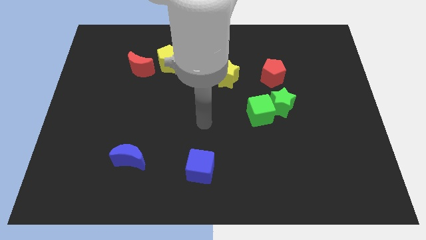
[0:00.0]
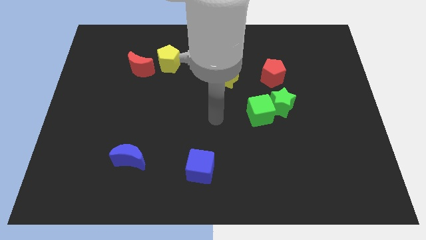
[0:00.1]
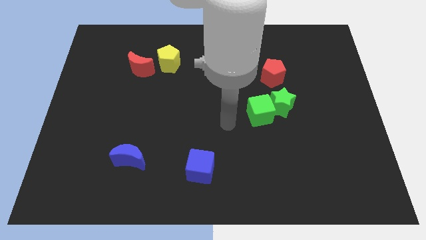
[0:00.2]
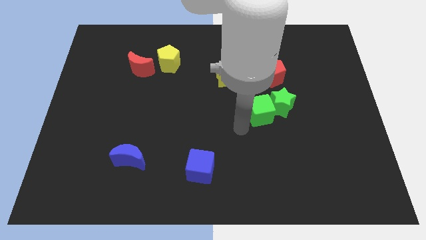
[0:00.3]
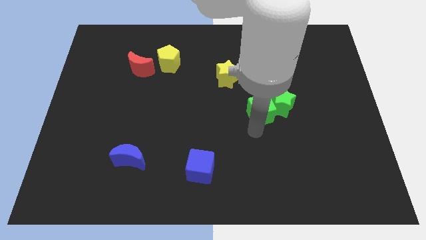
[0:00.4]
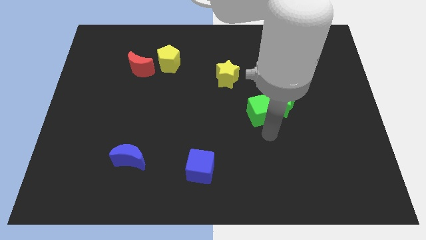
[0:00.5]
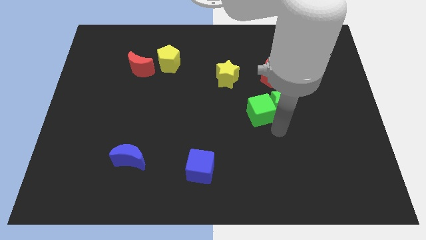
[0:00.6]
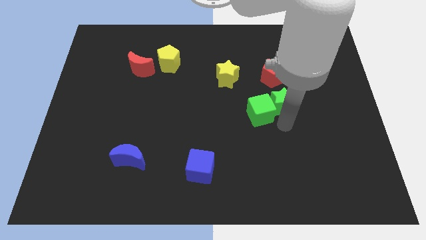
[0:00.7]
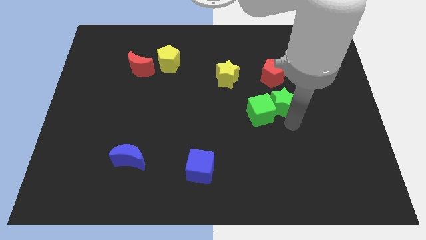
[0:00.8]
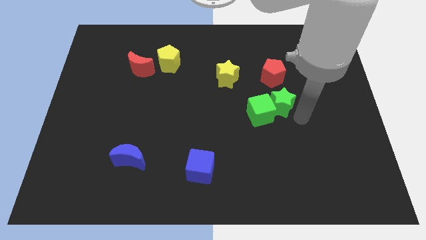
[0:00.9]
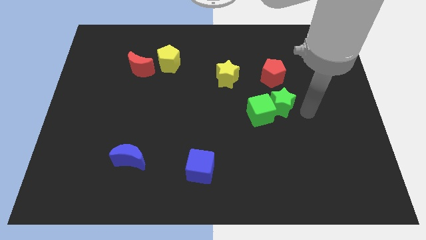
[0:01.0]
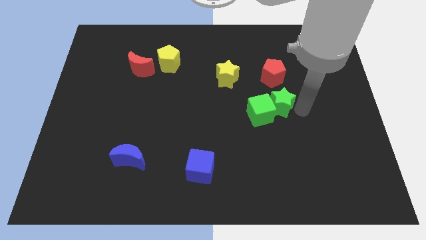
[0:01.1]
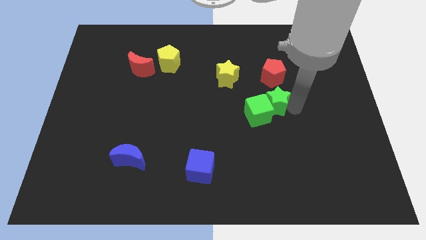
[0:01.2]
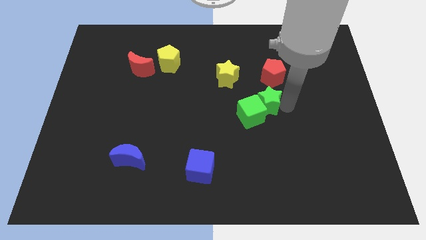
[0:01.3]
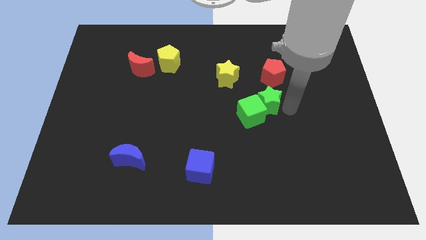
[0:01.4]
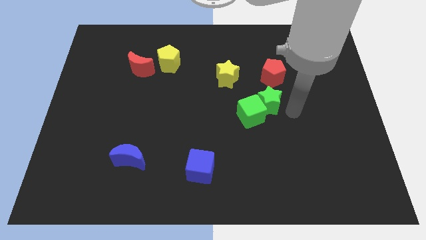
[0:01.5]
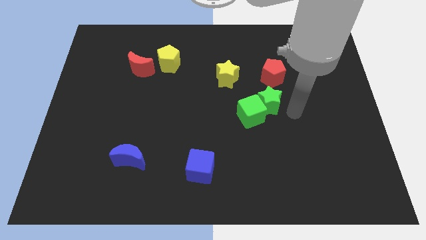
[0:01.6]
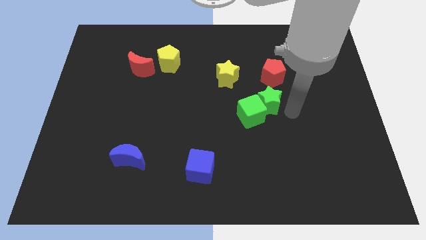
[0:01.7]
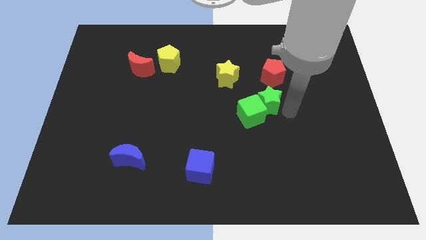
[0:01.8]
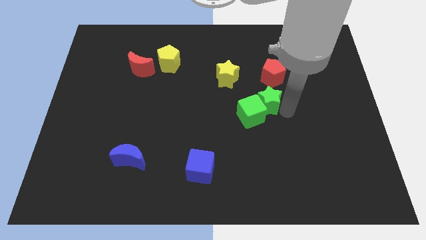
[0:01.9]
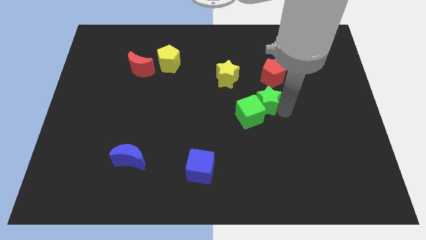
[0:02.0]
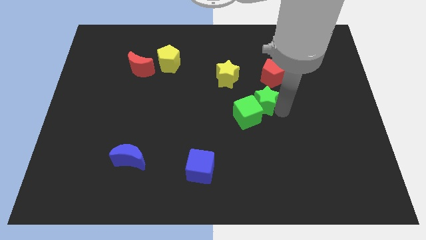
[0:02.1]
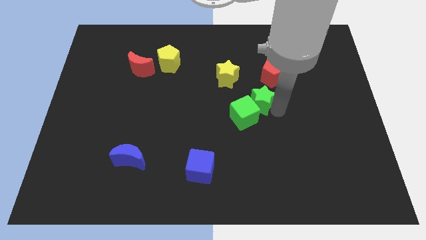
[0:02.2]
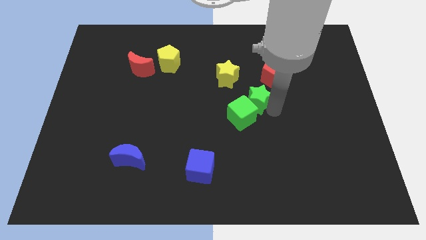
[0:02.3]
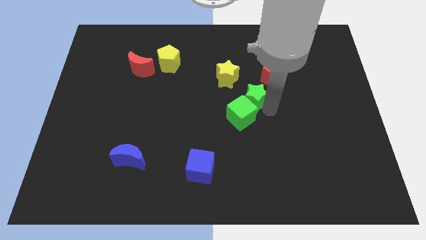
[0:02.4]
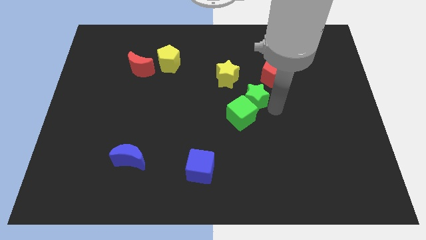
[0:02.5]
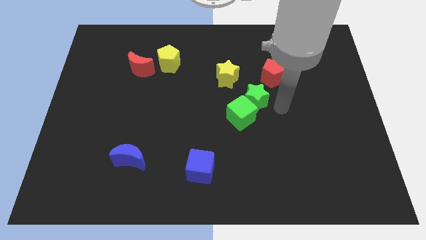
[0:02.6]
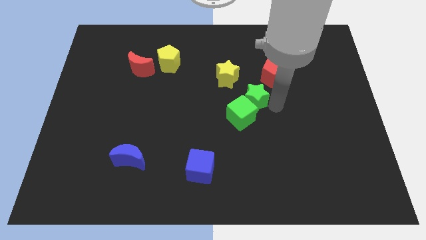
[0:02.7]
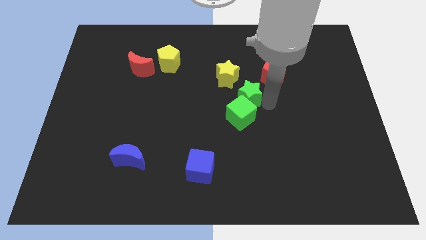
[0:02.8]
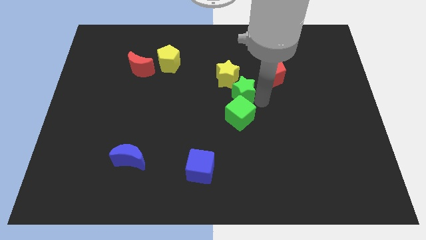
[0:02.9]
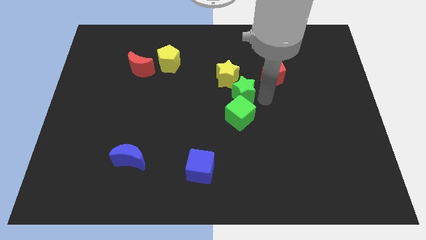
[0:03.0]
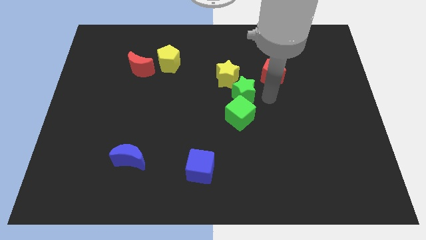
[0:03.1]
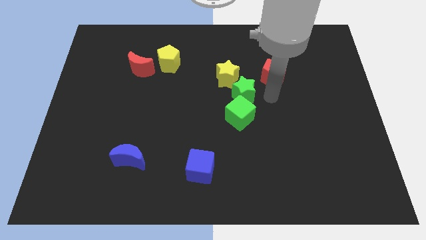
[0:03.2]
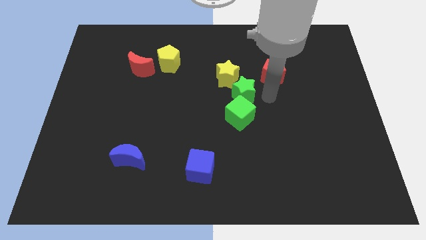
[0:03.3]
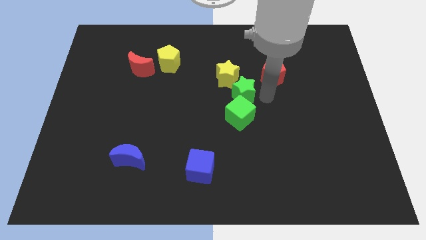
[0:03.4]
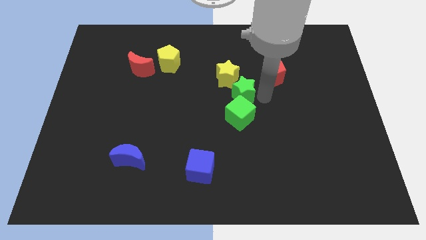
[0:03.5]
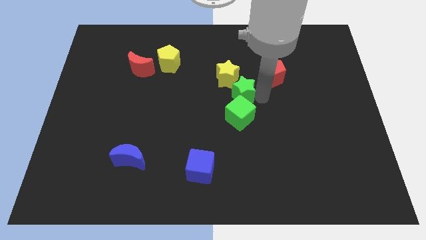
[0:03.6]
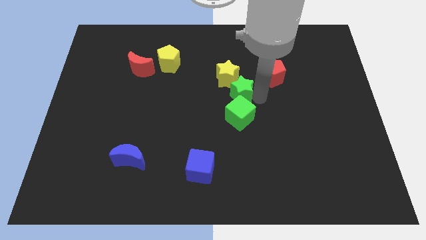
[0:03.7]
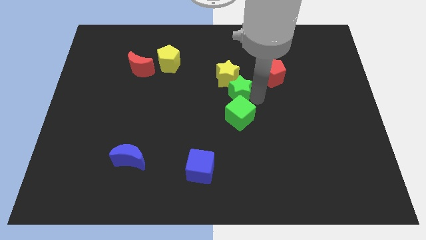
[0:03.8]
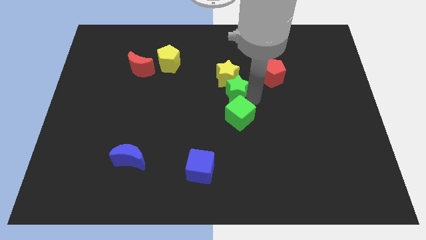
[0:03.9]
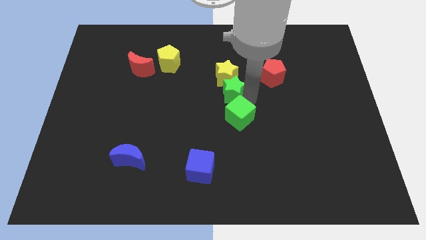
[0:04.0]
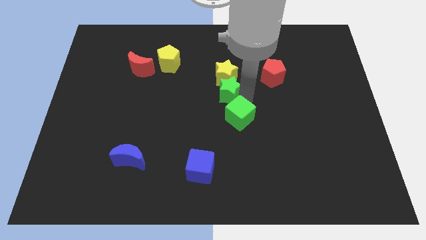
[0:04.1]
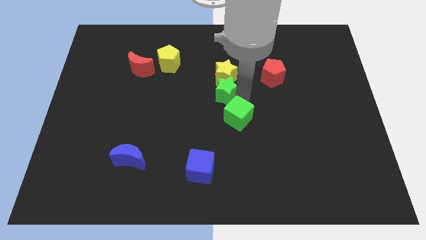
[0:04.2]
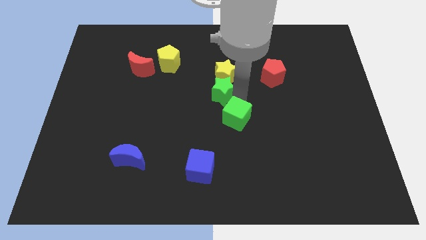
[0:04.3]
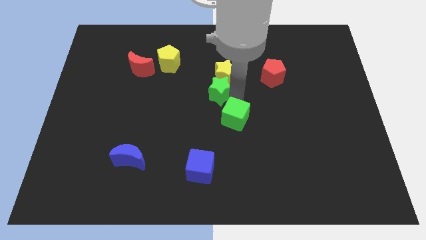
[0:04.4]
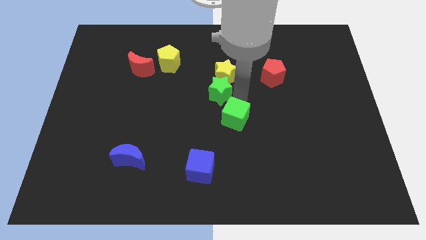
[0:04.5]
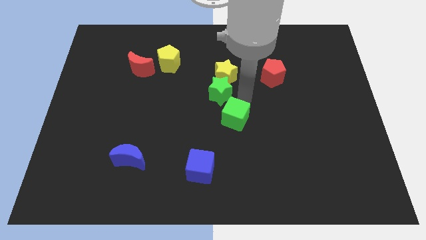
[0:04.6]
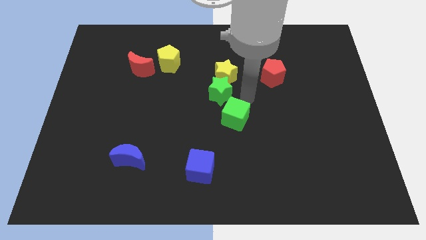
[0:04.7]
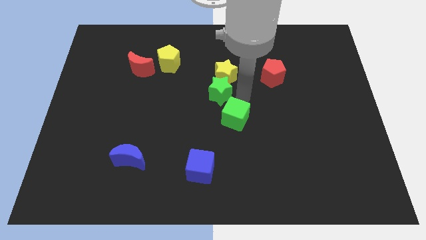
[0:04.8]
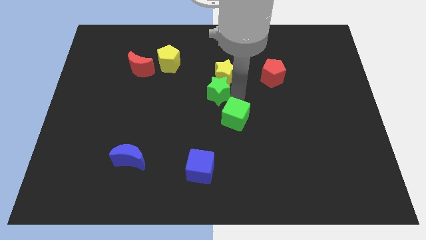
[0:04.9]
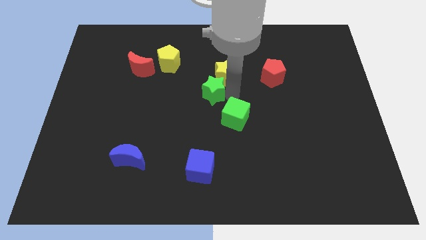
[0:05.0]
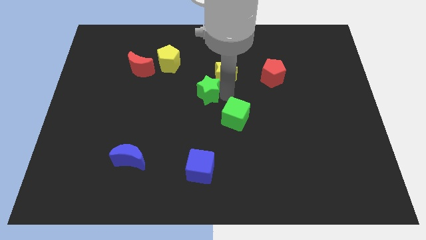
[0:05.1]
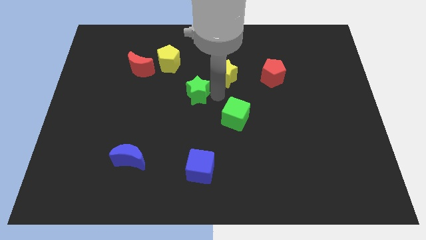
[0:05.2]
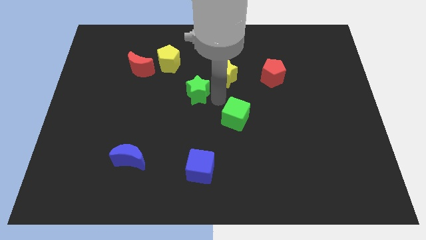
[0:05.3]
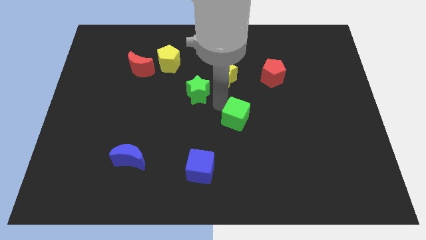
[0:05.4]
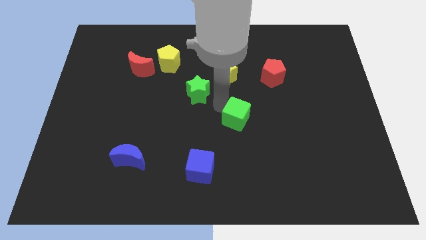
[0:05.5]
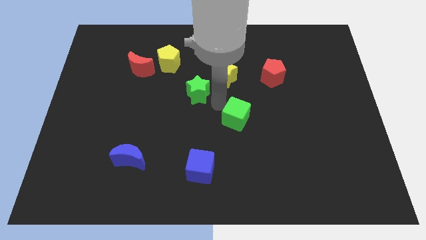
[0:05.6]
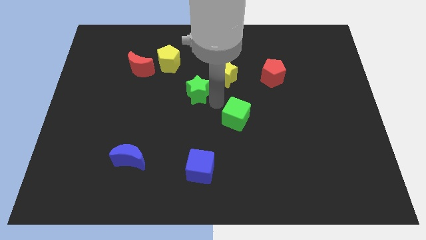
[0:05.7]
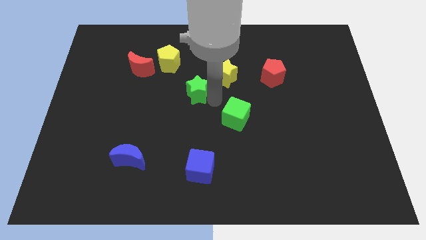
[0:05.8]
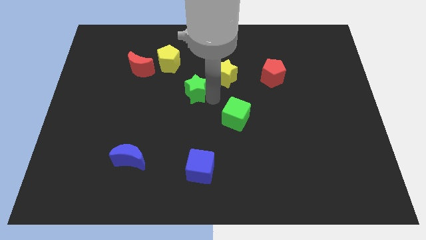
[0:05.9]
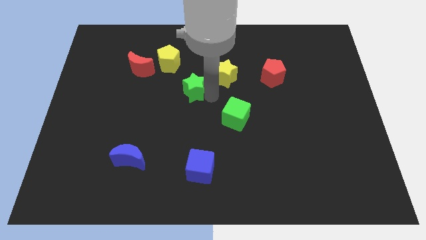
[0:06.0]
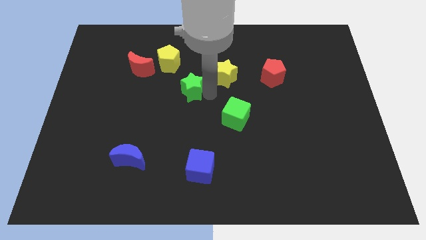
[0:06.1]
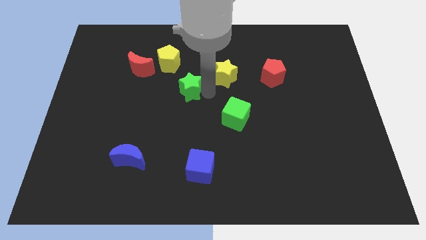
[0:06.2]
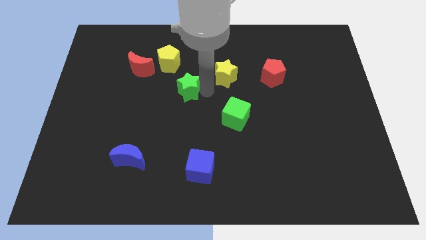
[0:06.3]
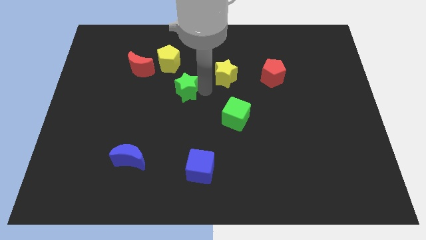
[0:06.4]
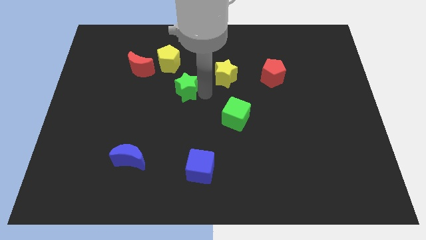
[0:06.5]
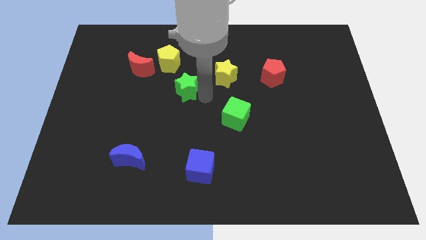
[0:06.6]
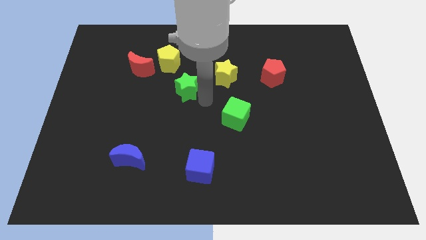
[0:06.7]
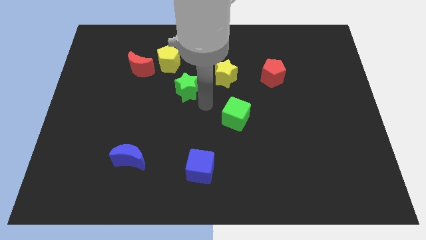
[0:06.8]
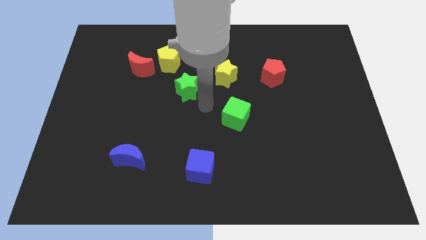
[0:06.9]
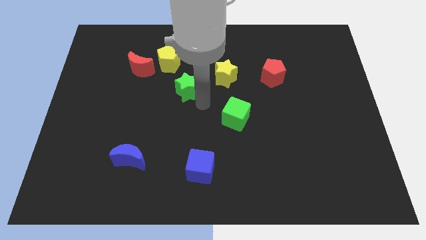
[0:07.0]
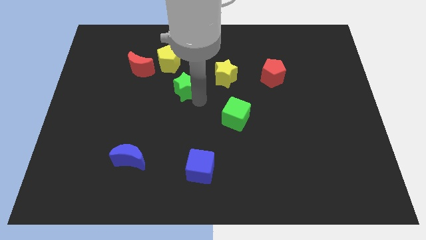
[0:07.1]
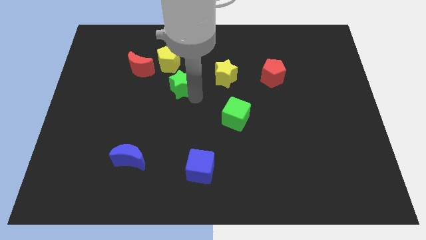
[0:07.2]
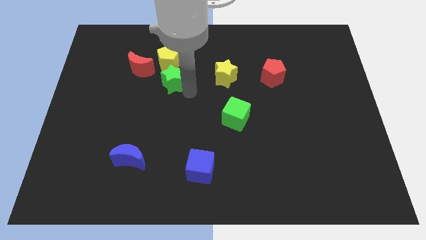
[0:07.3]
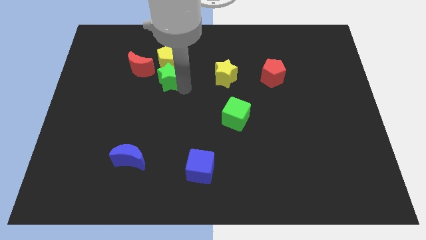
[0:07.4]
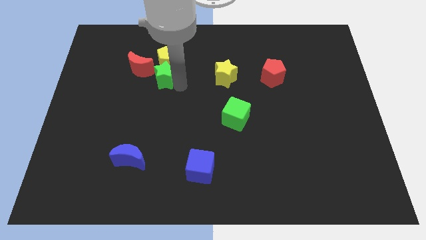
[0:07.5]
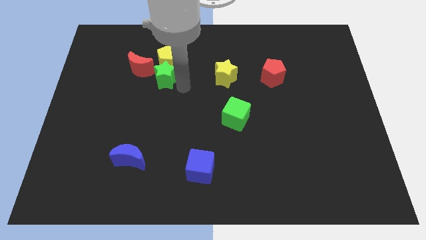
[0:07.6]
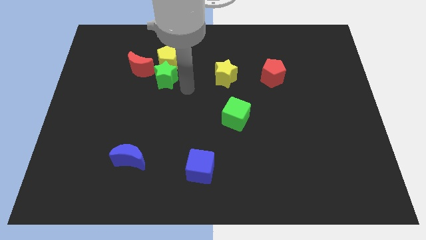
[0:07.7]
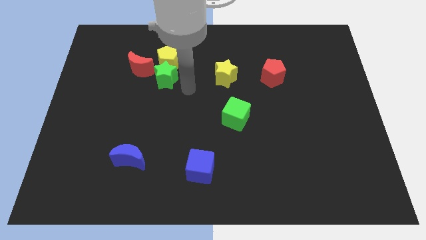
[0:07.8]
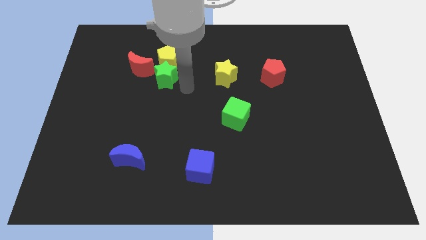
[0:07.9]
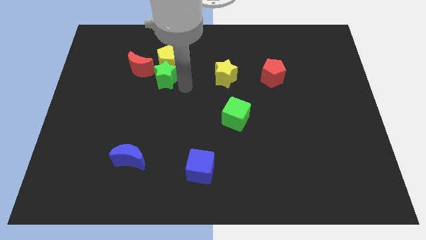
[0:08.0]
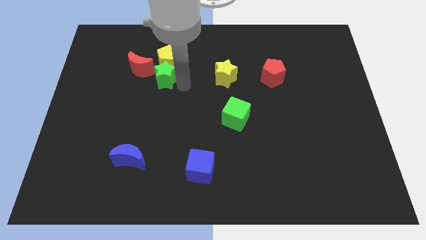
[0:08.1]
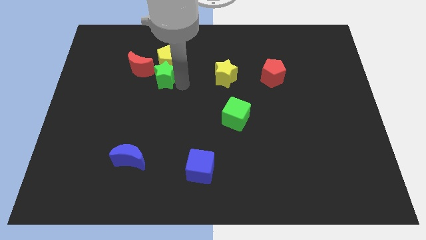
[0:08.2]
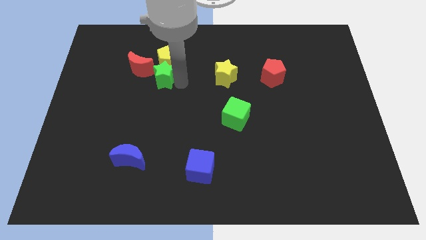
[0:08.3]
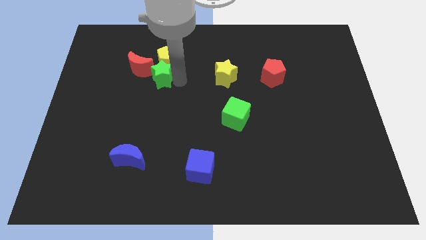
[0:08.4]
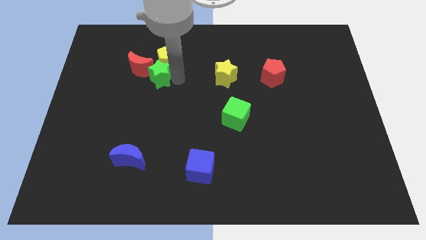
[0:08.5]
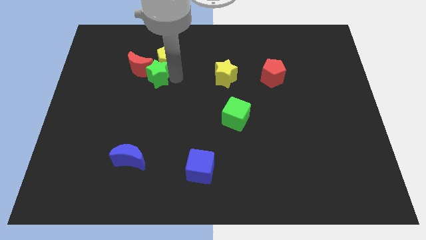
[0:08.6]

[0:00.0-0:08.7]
slide the green star close to the red moon
